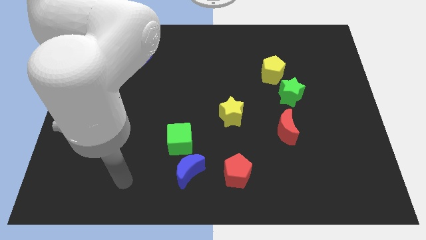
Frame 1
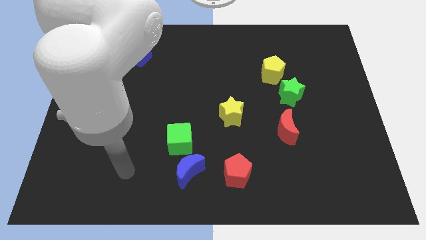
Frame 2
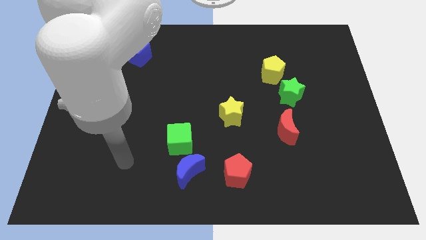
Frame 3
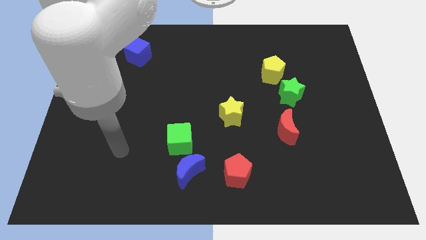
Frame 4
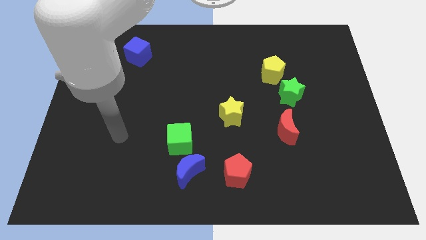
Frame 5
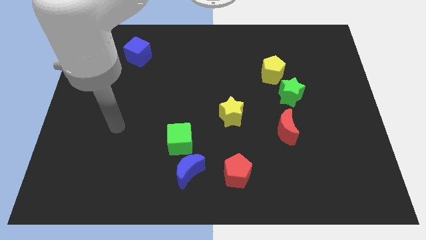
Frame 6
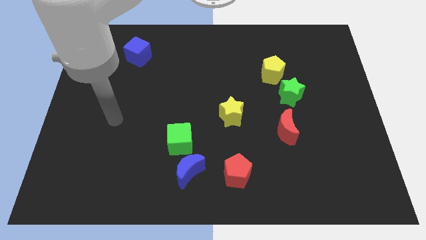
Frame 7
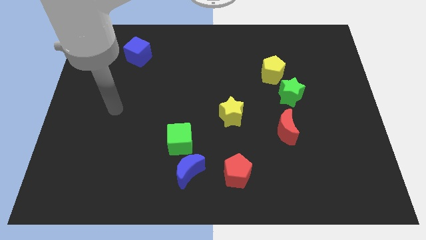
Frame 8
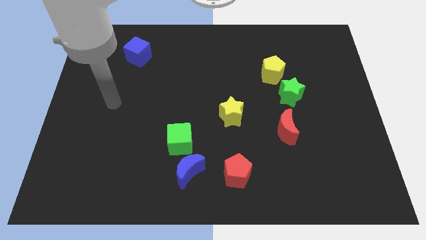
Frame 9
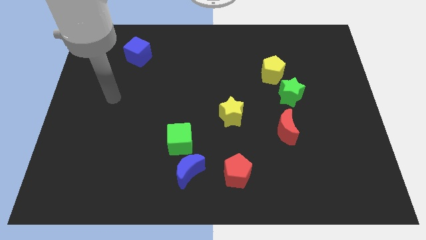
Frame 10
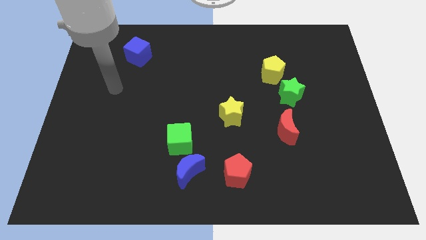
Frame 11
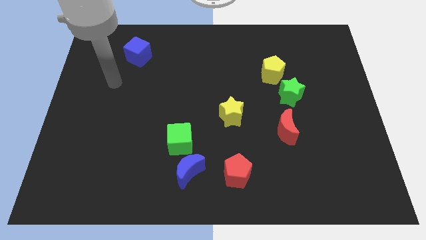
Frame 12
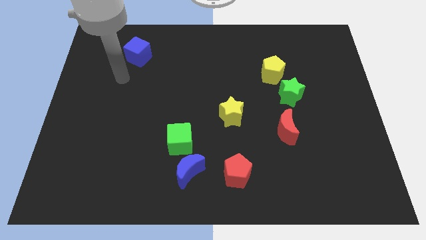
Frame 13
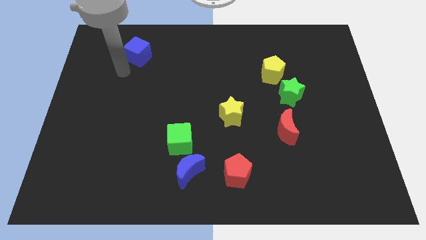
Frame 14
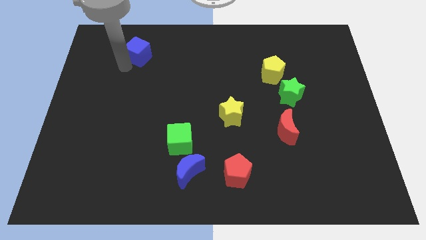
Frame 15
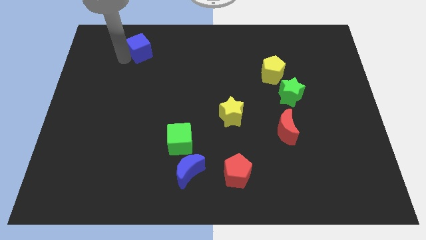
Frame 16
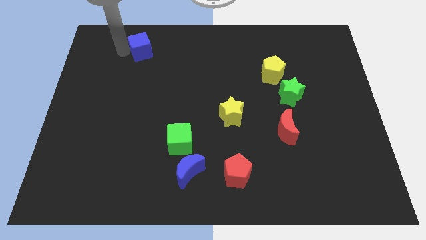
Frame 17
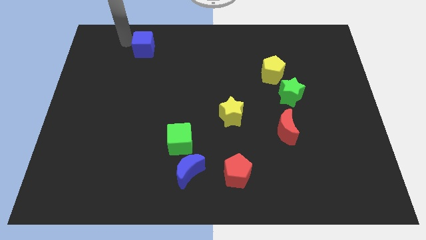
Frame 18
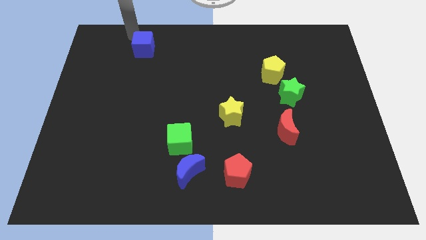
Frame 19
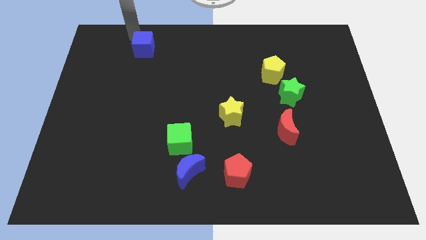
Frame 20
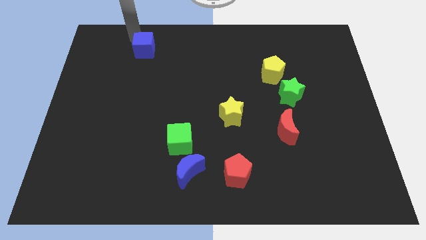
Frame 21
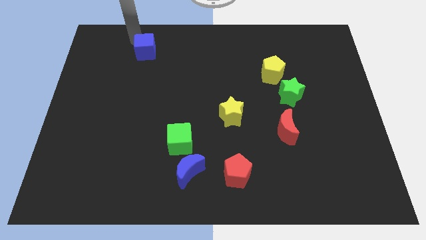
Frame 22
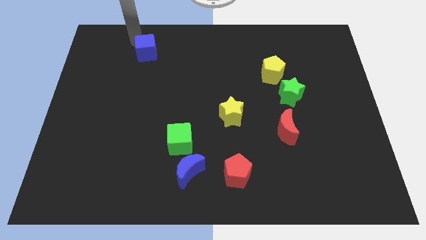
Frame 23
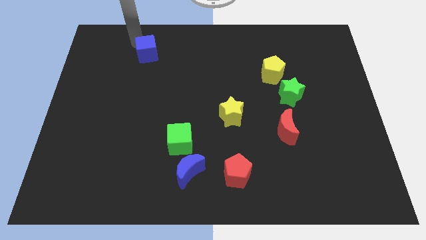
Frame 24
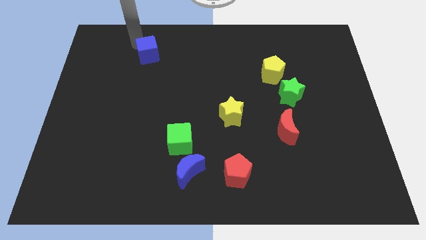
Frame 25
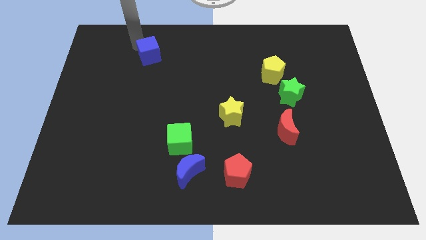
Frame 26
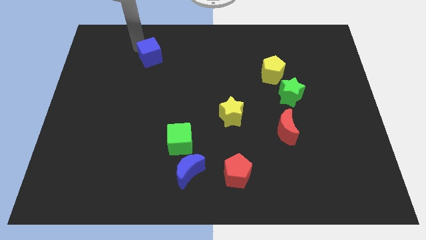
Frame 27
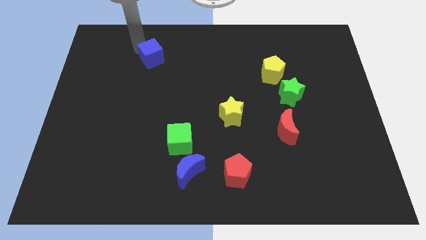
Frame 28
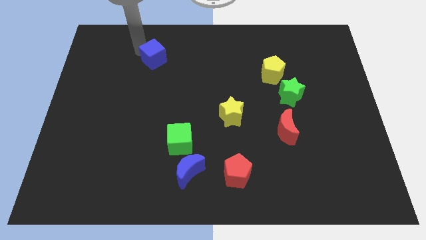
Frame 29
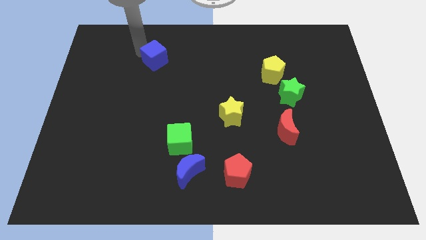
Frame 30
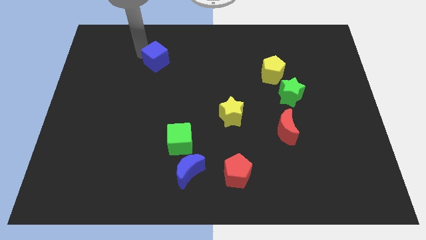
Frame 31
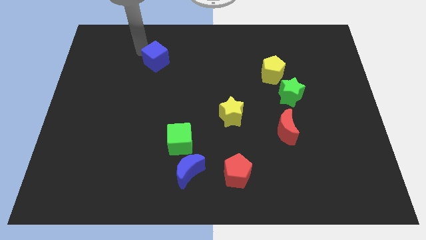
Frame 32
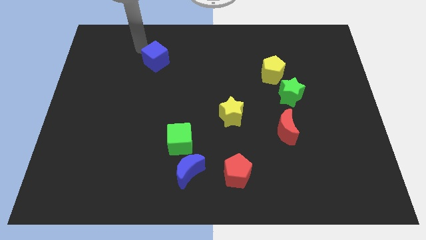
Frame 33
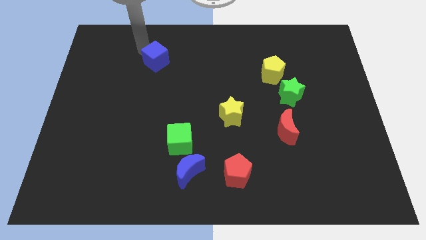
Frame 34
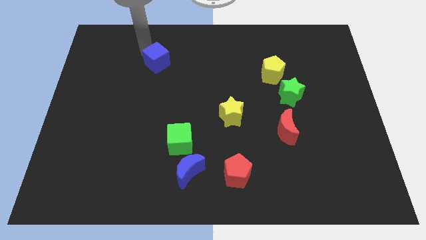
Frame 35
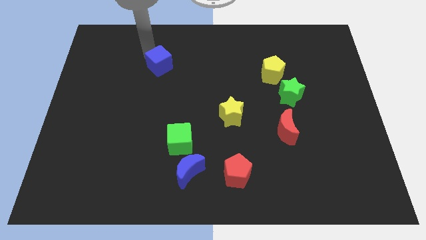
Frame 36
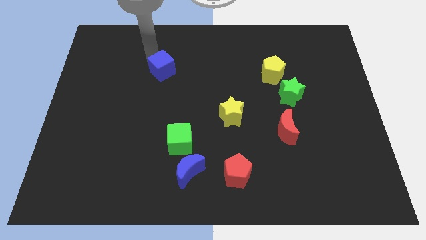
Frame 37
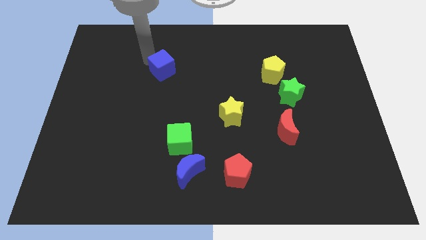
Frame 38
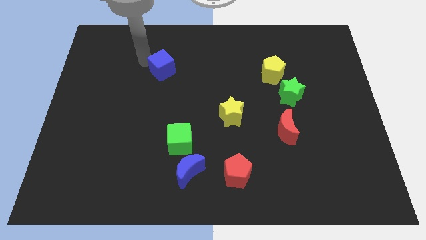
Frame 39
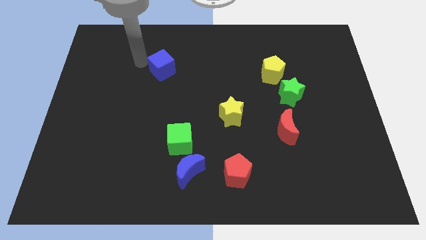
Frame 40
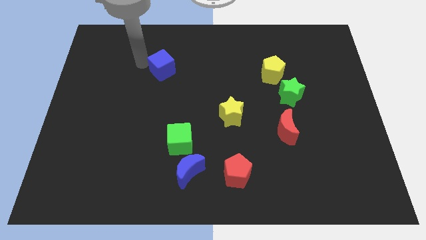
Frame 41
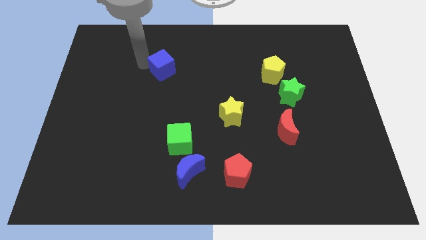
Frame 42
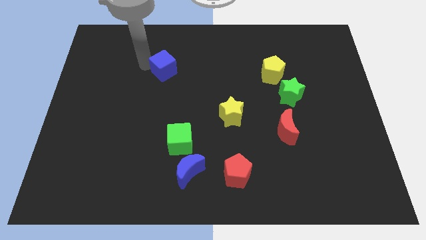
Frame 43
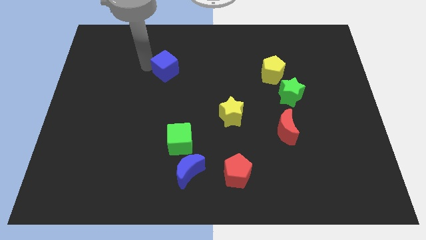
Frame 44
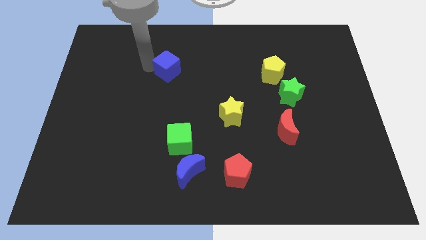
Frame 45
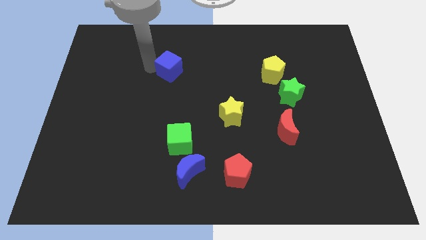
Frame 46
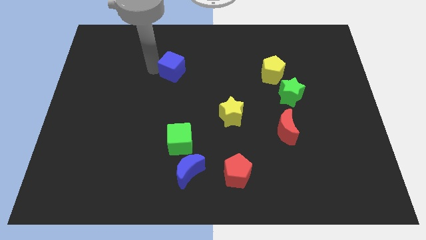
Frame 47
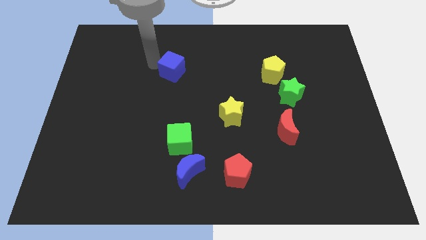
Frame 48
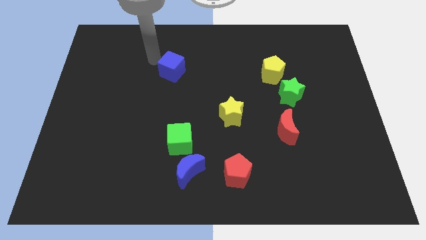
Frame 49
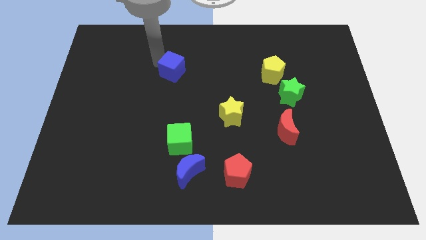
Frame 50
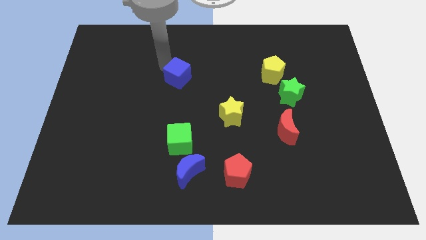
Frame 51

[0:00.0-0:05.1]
push the blue cube to the center of the board

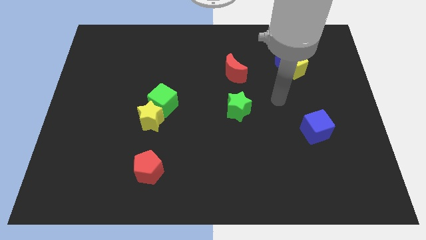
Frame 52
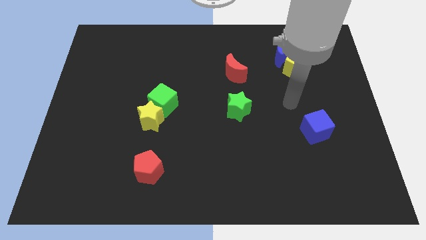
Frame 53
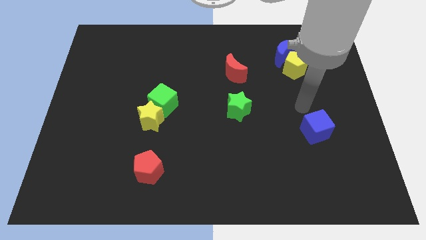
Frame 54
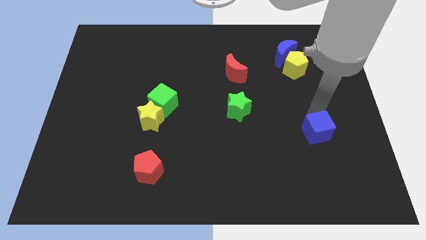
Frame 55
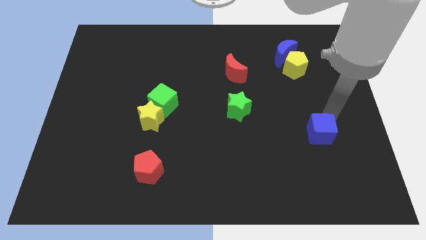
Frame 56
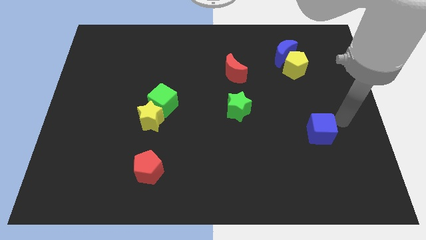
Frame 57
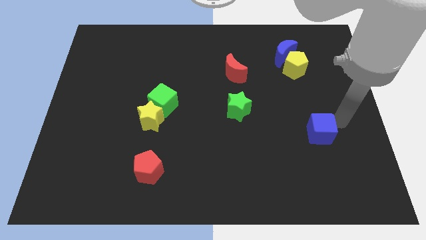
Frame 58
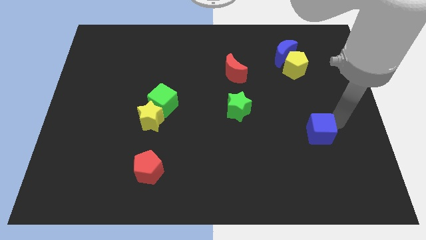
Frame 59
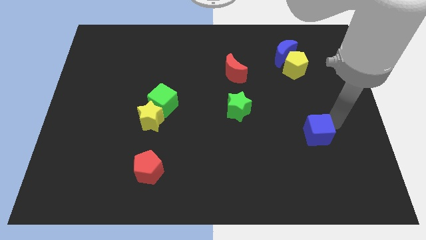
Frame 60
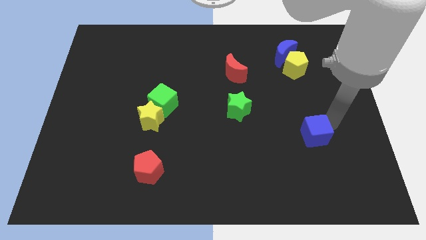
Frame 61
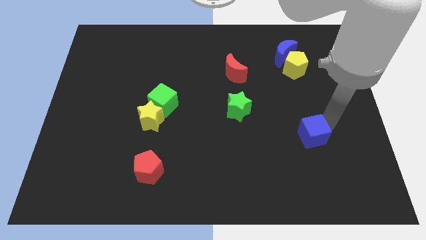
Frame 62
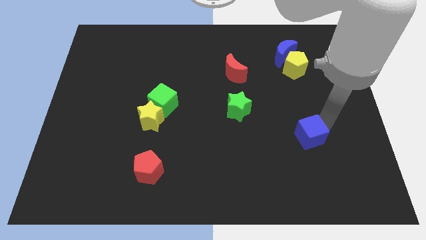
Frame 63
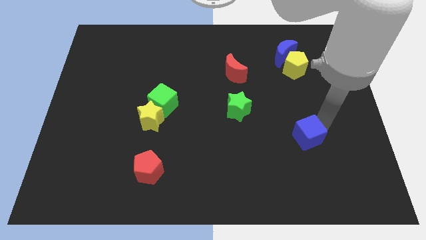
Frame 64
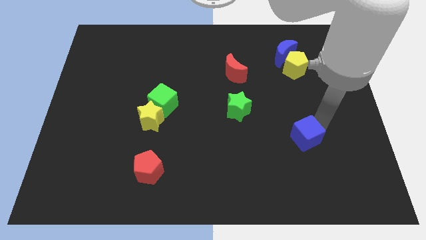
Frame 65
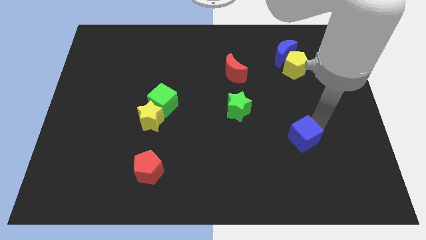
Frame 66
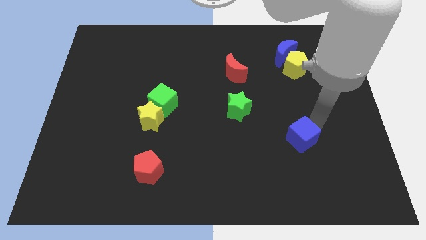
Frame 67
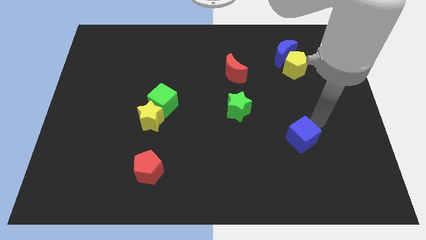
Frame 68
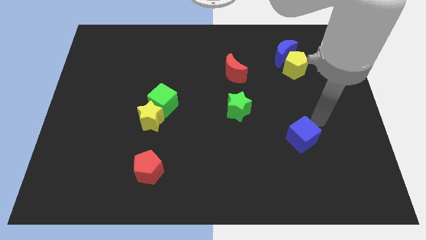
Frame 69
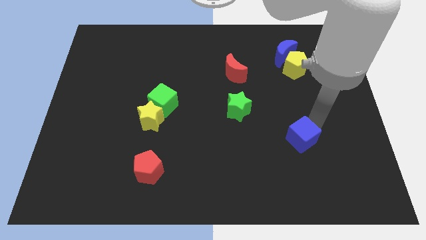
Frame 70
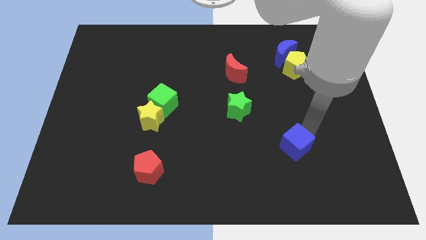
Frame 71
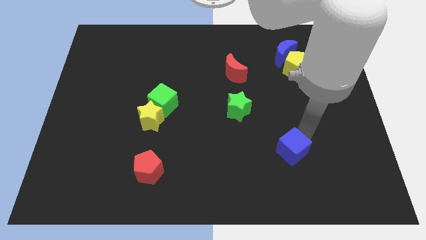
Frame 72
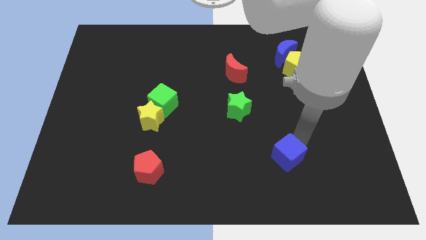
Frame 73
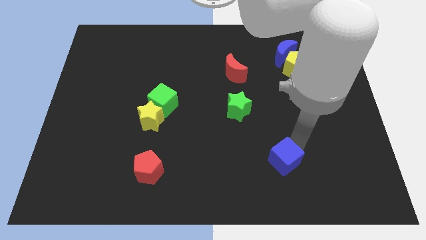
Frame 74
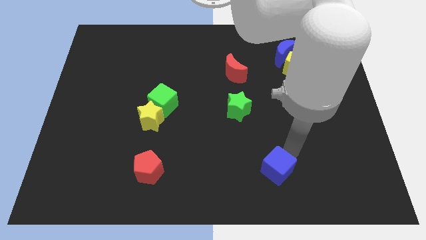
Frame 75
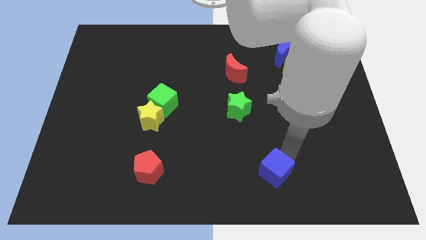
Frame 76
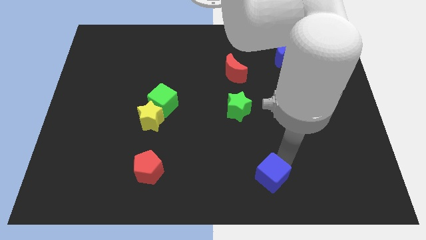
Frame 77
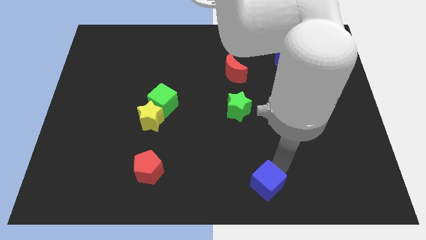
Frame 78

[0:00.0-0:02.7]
move the blue cube to the bottom side
